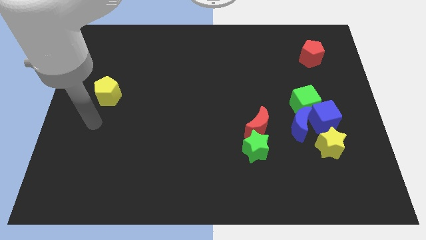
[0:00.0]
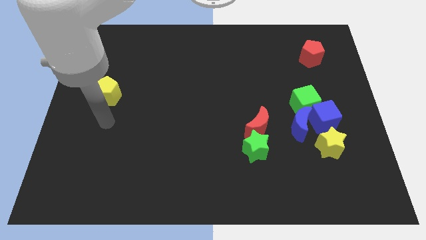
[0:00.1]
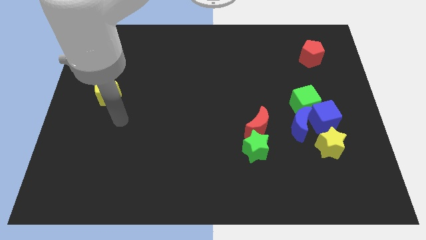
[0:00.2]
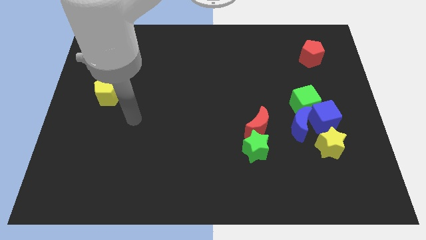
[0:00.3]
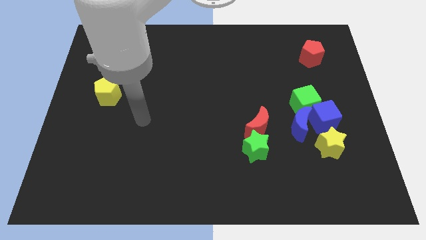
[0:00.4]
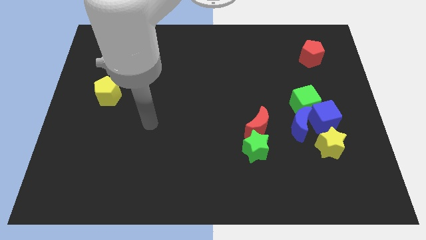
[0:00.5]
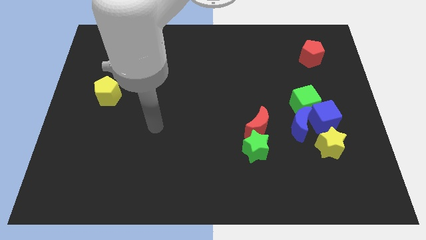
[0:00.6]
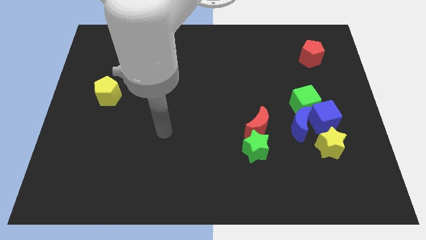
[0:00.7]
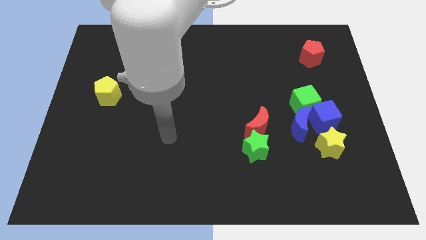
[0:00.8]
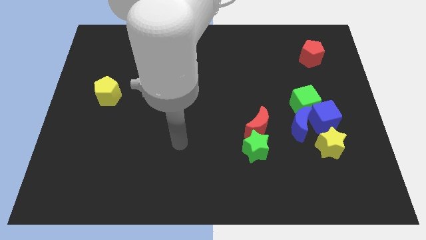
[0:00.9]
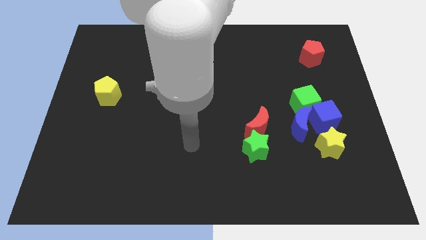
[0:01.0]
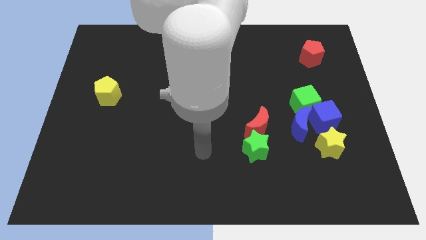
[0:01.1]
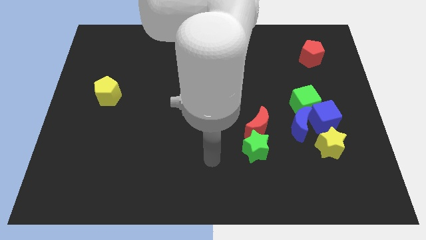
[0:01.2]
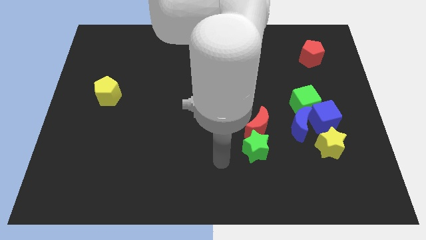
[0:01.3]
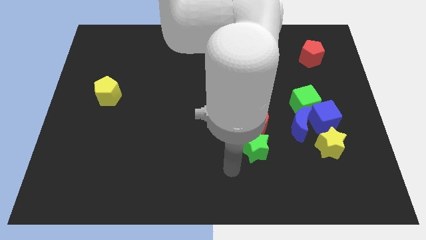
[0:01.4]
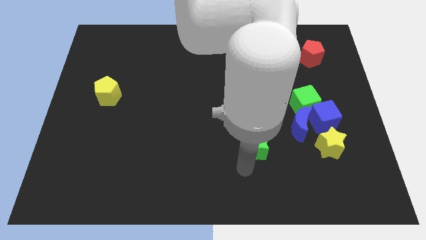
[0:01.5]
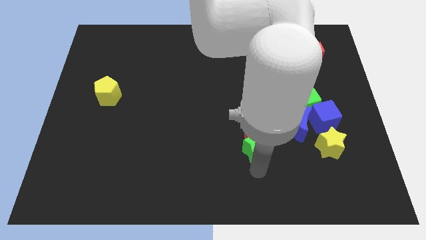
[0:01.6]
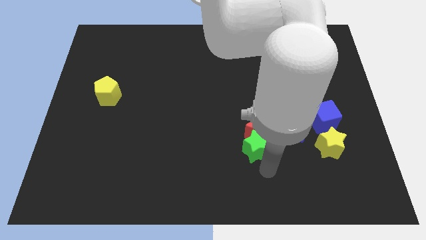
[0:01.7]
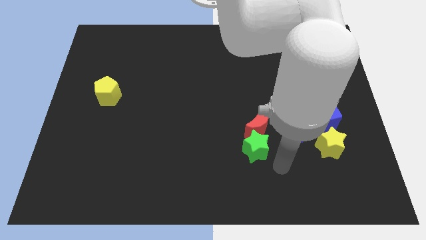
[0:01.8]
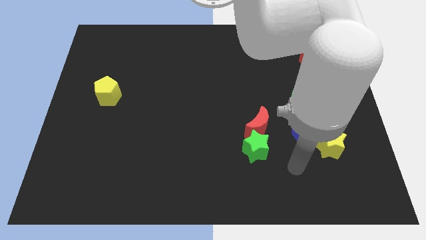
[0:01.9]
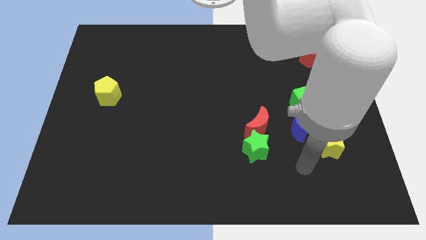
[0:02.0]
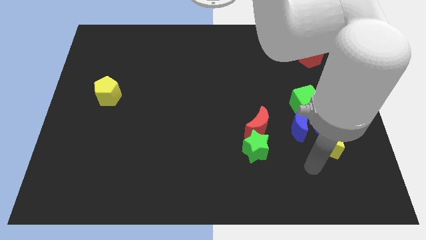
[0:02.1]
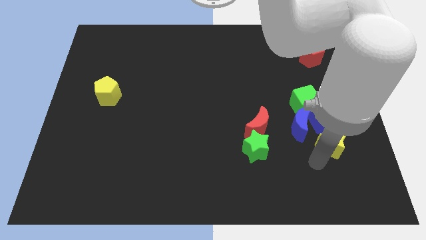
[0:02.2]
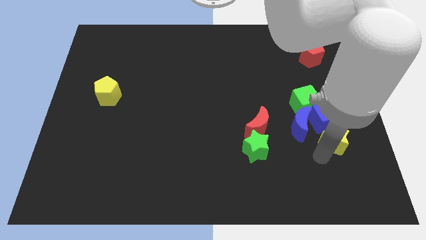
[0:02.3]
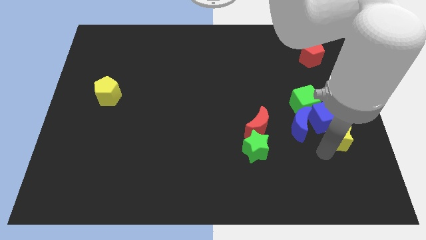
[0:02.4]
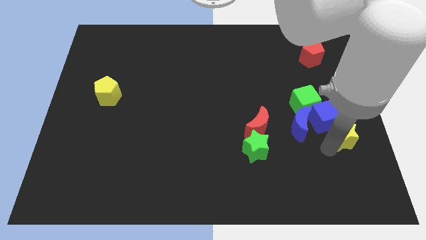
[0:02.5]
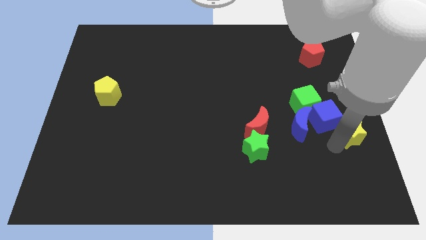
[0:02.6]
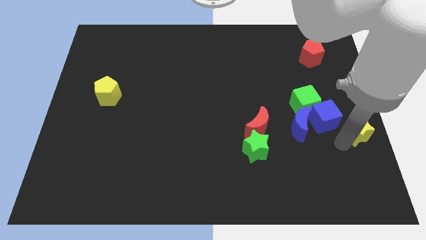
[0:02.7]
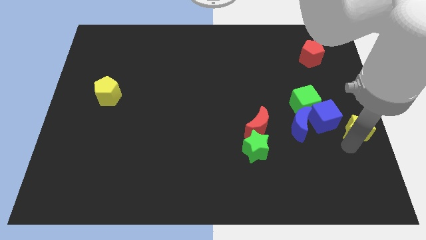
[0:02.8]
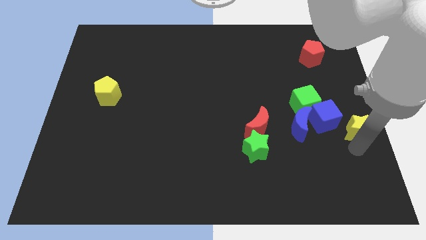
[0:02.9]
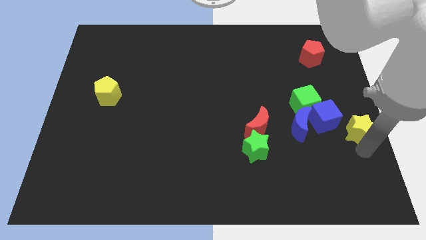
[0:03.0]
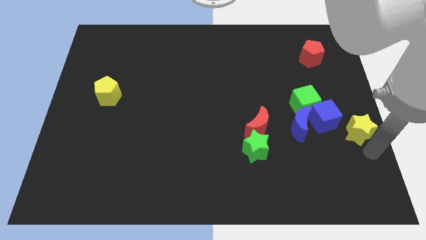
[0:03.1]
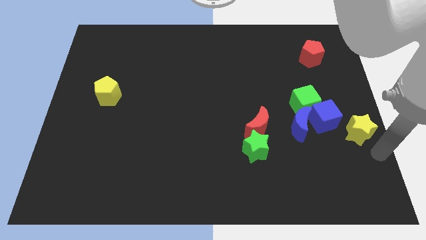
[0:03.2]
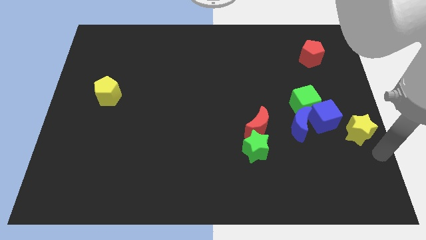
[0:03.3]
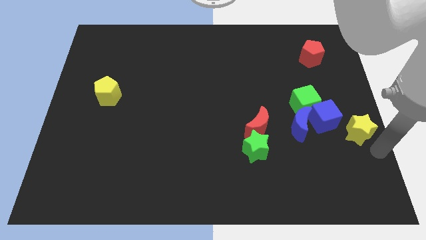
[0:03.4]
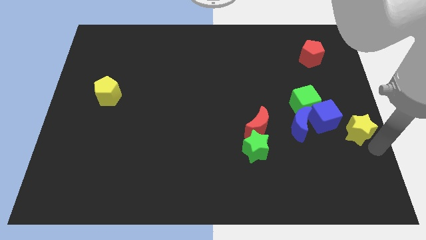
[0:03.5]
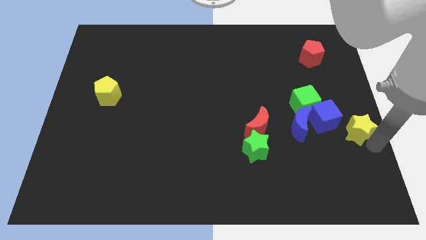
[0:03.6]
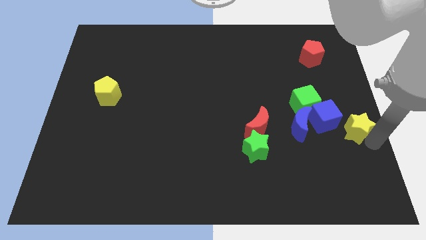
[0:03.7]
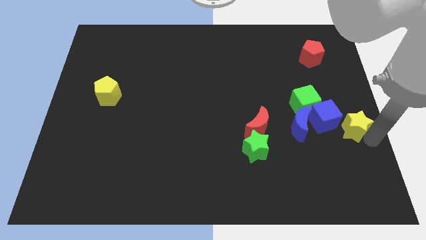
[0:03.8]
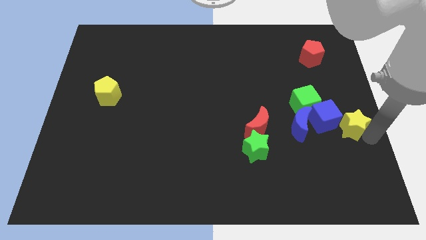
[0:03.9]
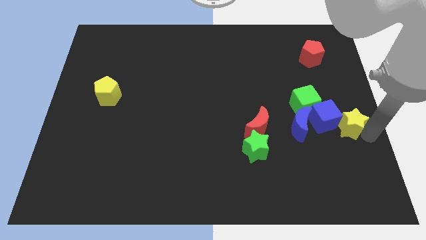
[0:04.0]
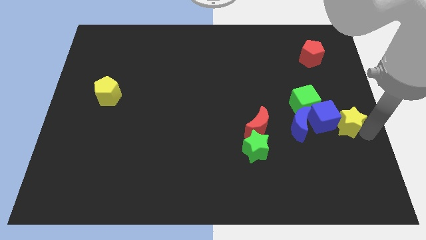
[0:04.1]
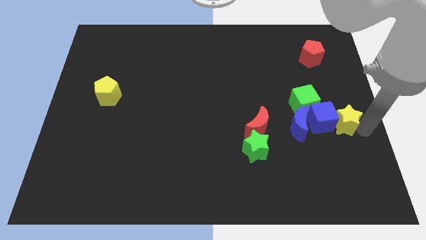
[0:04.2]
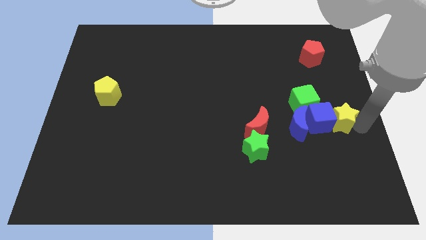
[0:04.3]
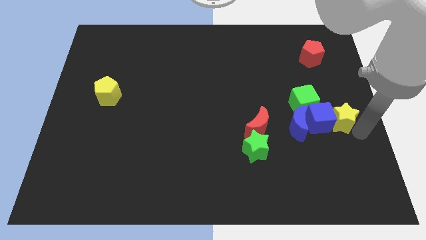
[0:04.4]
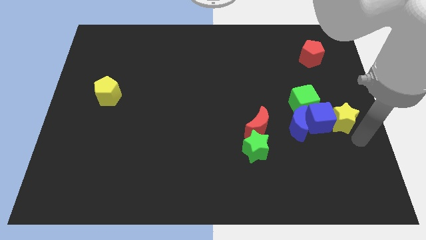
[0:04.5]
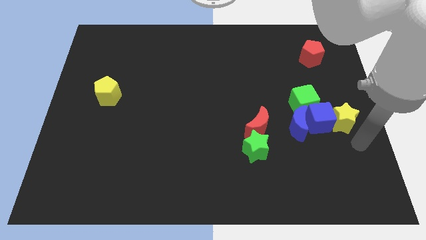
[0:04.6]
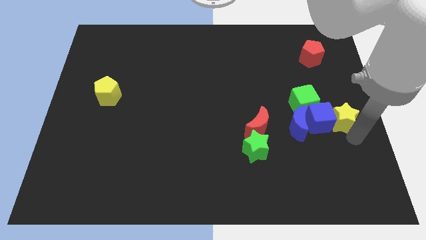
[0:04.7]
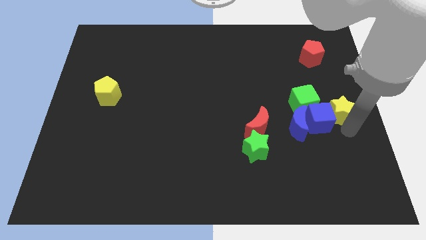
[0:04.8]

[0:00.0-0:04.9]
move the yellow star upwards a little bit

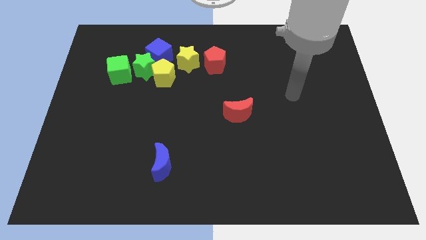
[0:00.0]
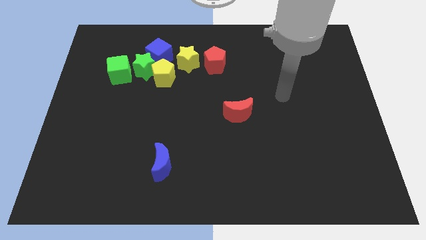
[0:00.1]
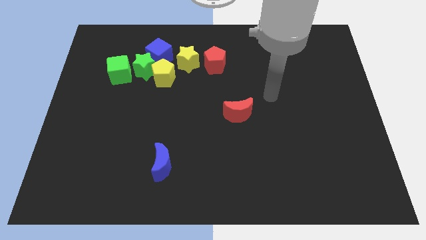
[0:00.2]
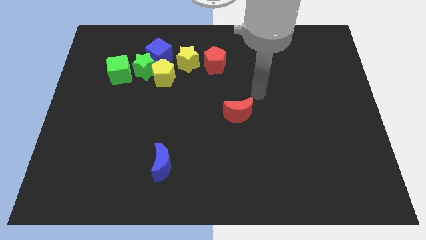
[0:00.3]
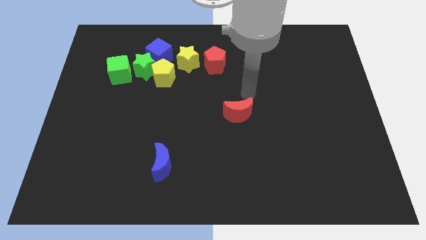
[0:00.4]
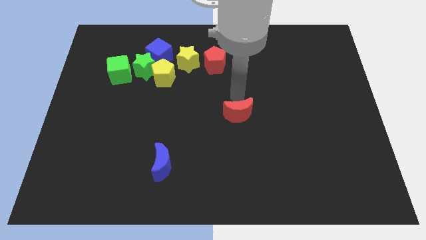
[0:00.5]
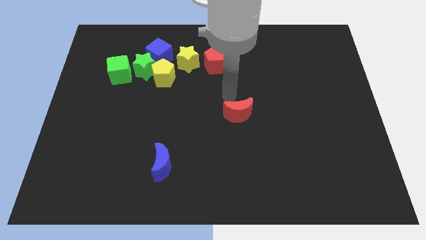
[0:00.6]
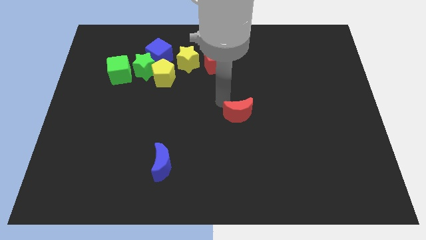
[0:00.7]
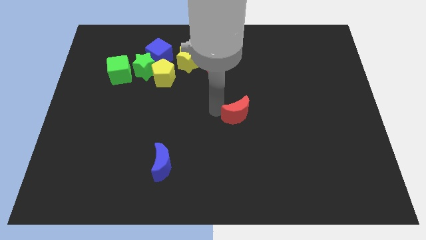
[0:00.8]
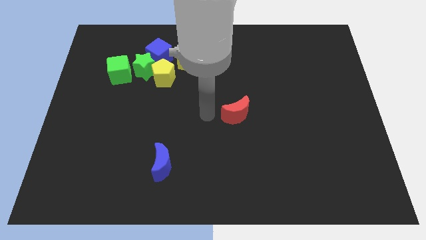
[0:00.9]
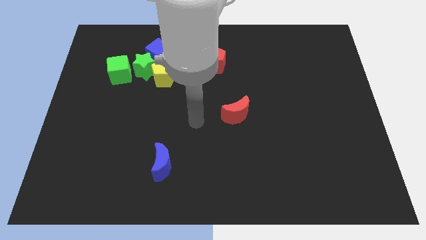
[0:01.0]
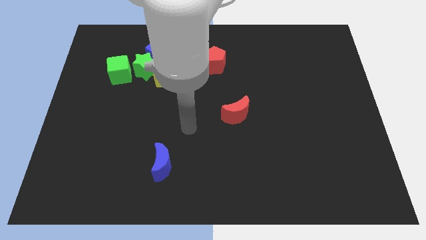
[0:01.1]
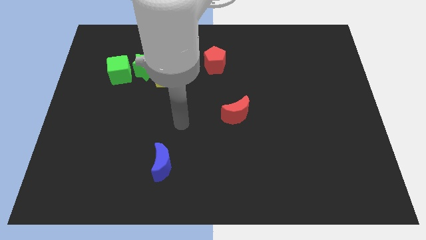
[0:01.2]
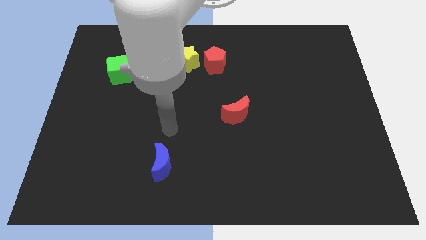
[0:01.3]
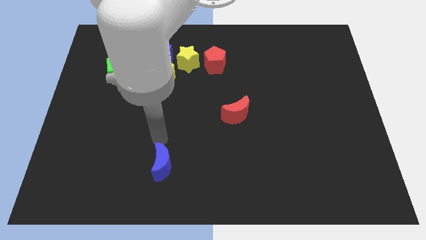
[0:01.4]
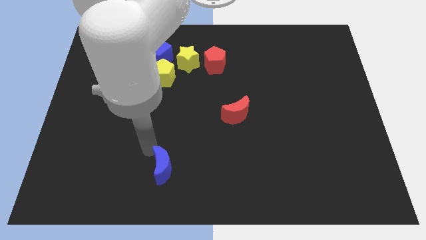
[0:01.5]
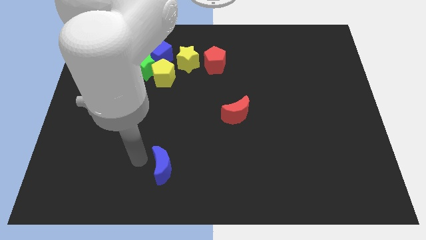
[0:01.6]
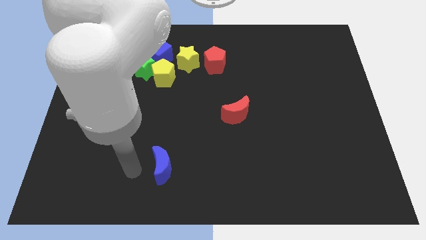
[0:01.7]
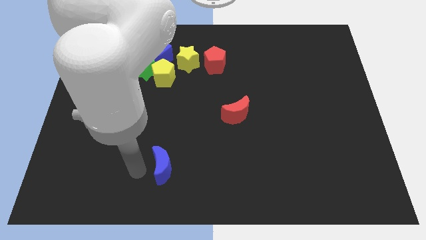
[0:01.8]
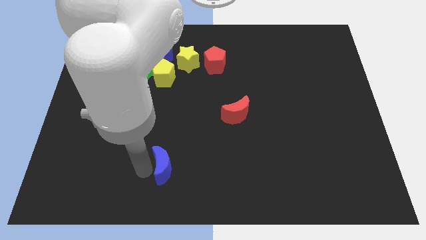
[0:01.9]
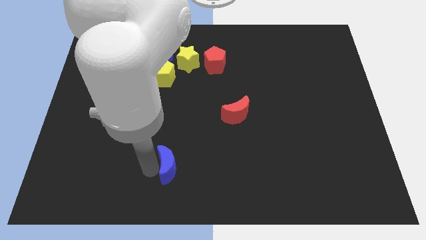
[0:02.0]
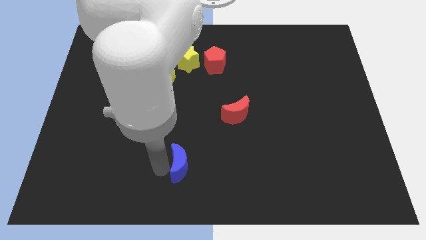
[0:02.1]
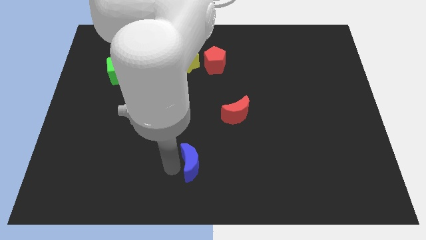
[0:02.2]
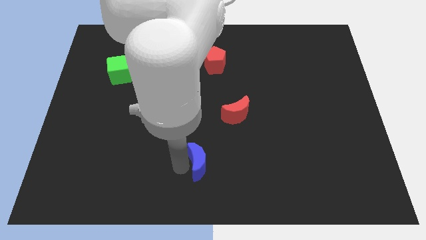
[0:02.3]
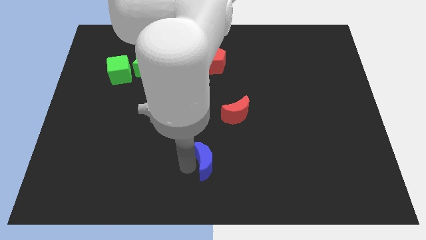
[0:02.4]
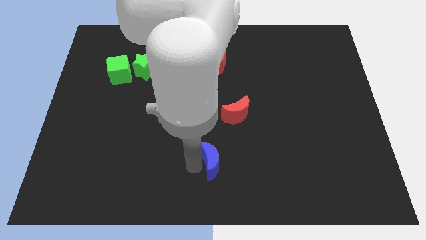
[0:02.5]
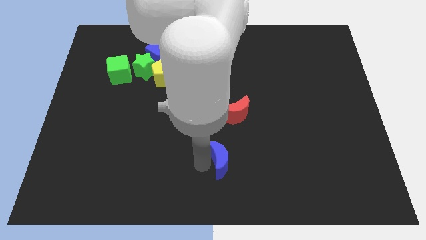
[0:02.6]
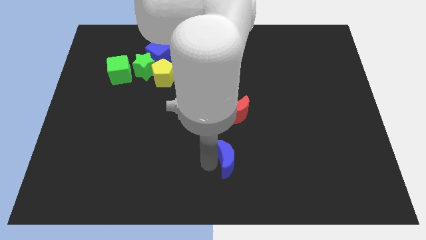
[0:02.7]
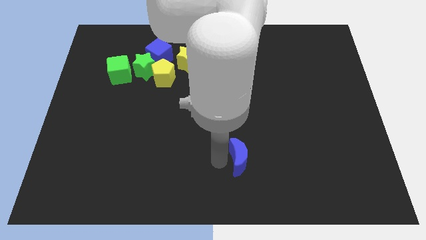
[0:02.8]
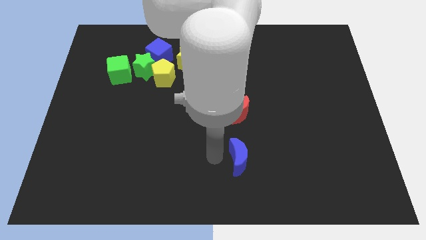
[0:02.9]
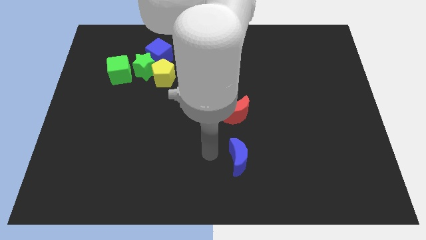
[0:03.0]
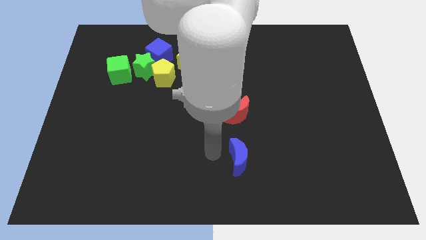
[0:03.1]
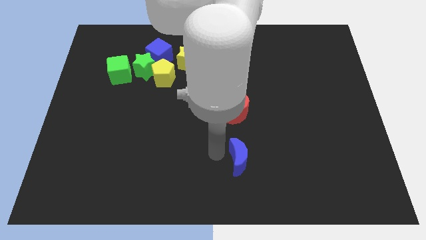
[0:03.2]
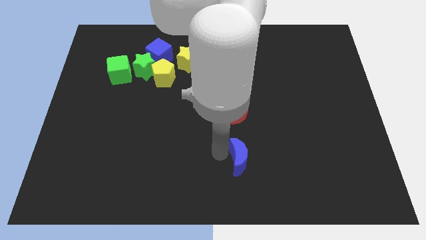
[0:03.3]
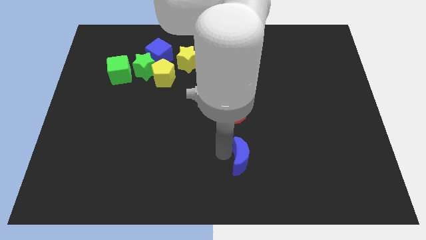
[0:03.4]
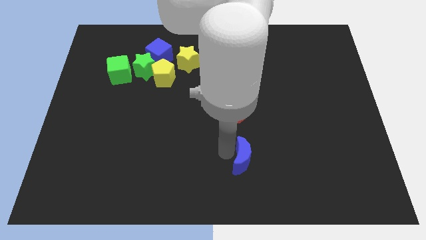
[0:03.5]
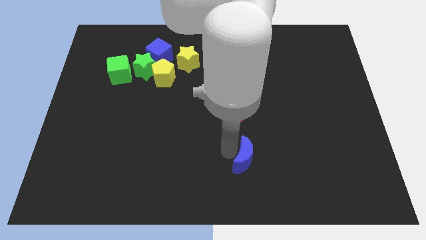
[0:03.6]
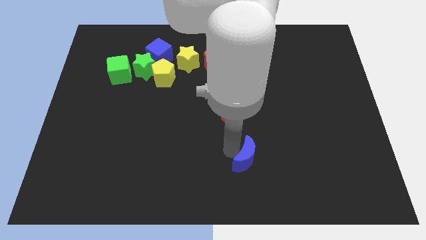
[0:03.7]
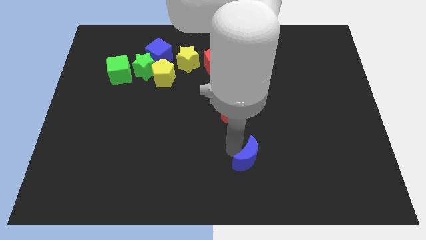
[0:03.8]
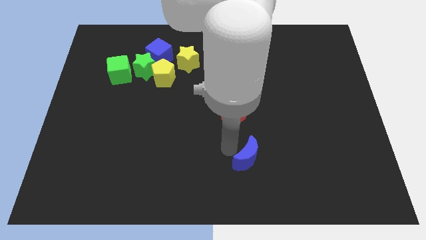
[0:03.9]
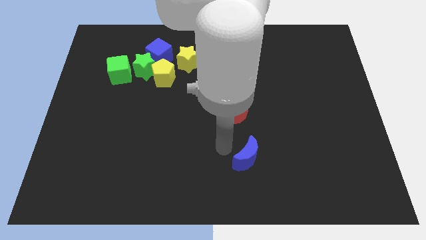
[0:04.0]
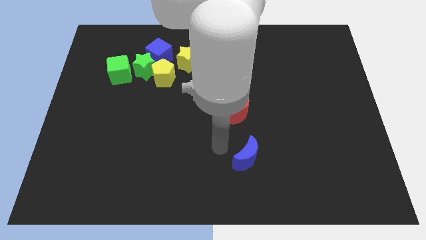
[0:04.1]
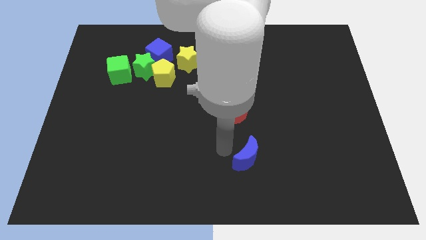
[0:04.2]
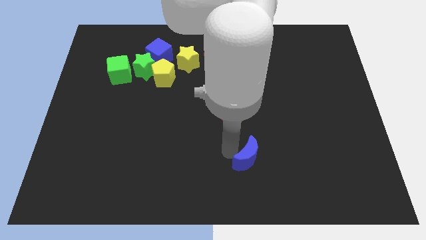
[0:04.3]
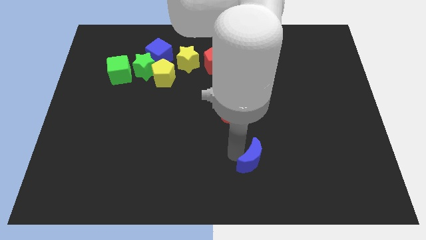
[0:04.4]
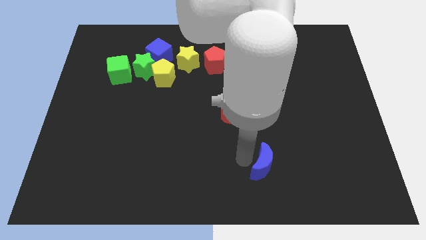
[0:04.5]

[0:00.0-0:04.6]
move the blue moon right
